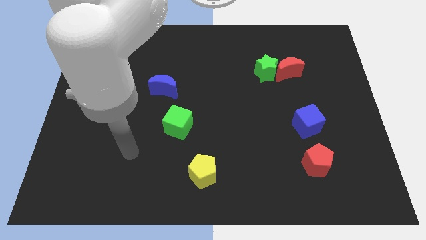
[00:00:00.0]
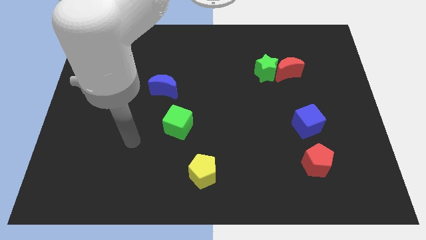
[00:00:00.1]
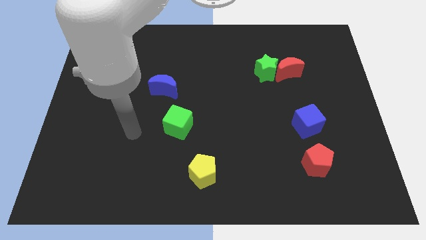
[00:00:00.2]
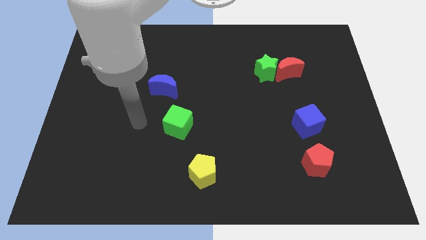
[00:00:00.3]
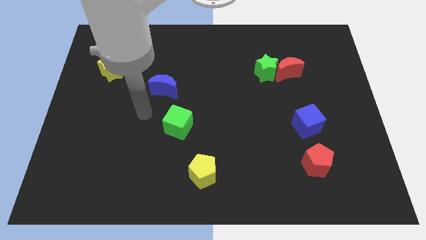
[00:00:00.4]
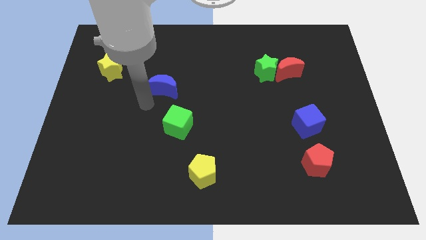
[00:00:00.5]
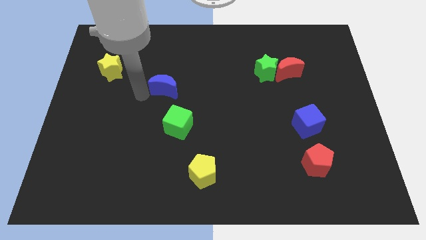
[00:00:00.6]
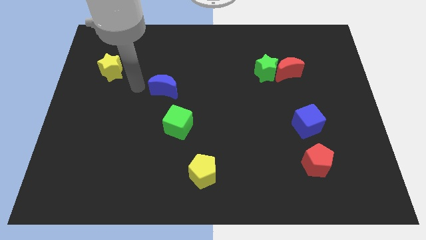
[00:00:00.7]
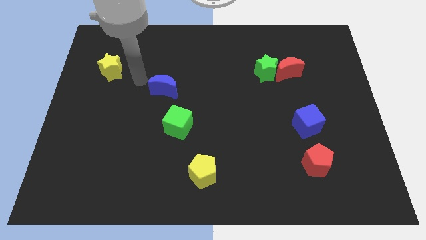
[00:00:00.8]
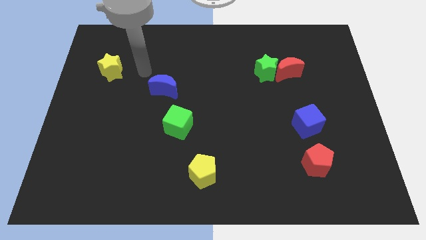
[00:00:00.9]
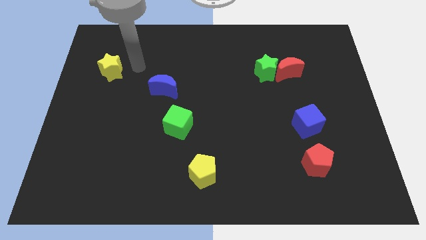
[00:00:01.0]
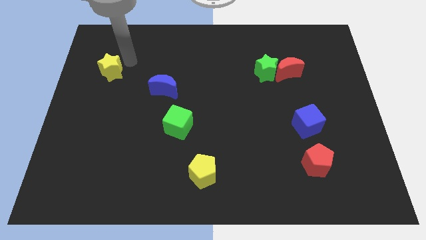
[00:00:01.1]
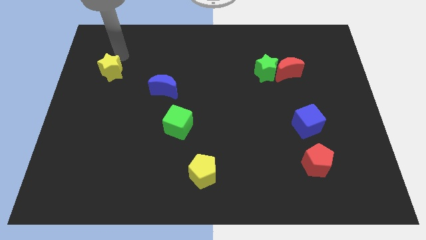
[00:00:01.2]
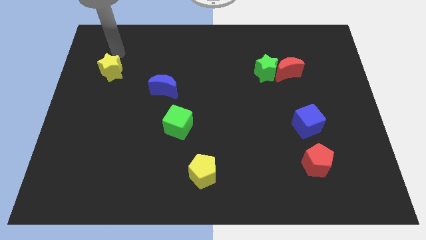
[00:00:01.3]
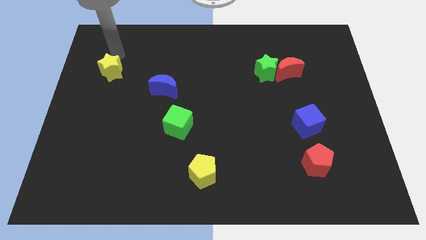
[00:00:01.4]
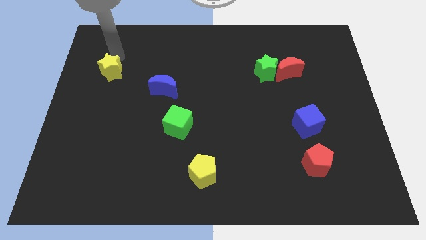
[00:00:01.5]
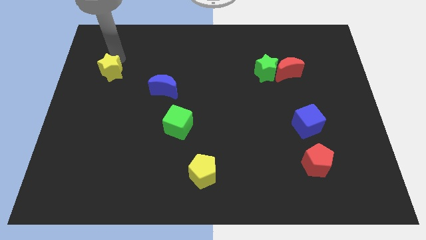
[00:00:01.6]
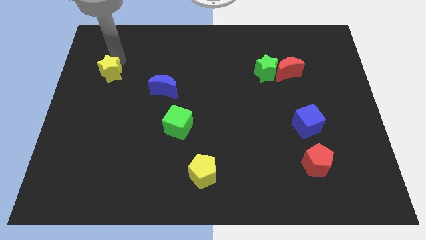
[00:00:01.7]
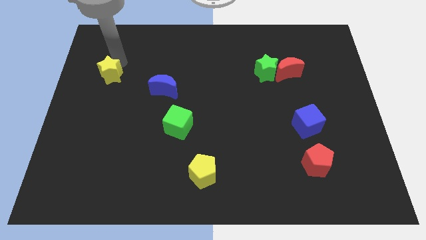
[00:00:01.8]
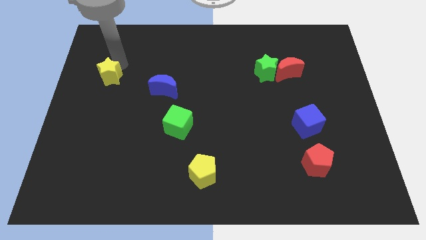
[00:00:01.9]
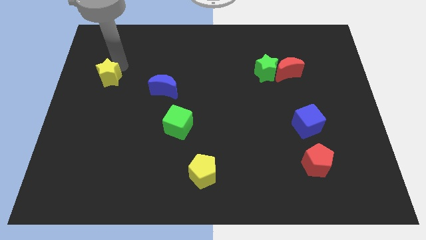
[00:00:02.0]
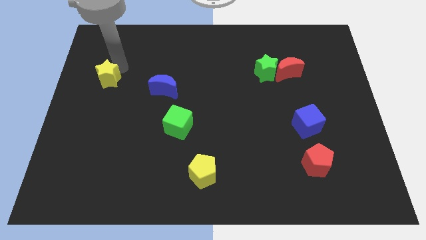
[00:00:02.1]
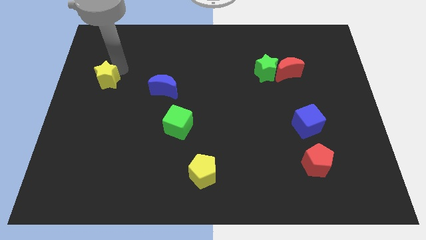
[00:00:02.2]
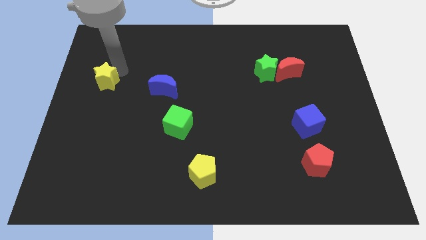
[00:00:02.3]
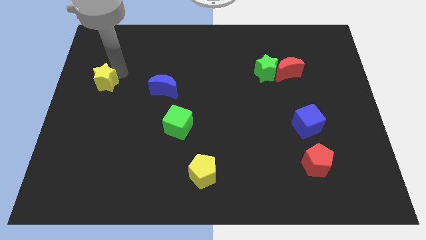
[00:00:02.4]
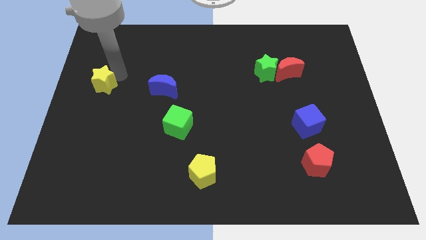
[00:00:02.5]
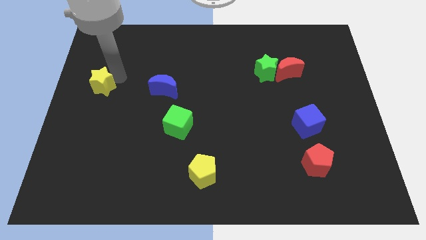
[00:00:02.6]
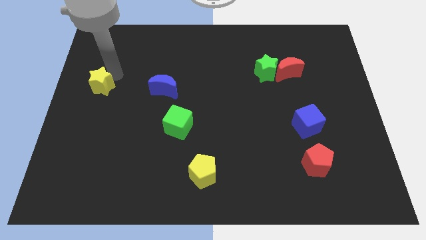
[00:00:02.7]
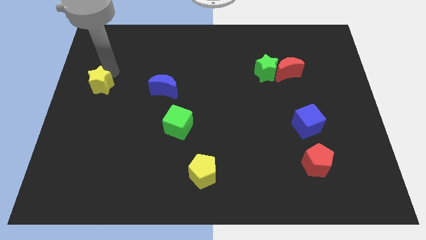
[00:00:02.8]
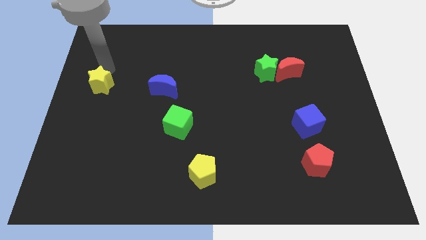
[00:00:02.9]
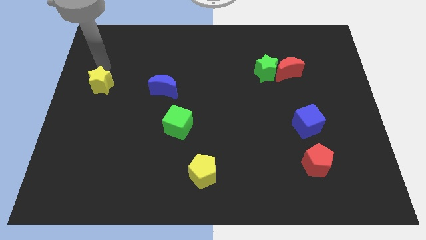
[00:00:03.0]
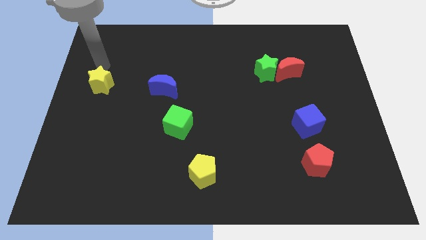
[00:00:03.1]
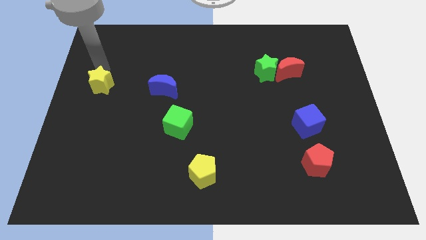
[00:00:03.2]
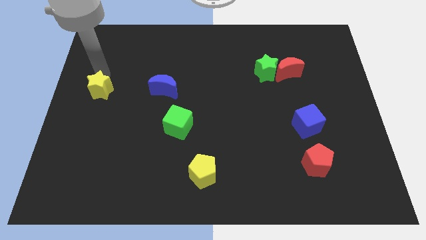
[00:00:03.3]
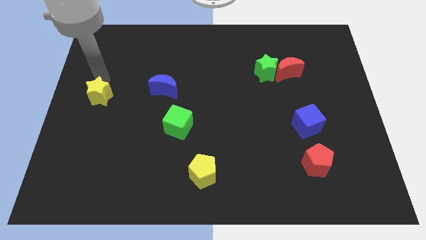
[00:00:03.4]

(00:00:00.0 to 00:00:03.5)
slide the yellow star a bit downwards

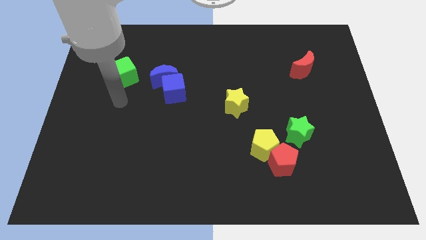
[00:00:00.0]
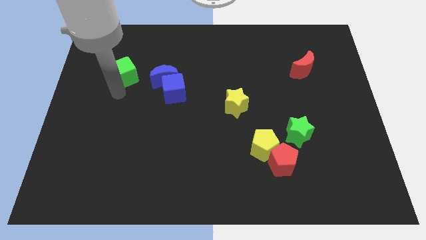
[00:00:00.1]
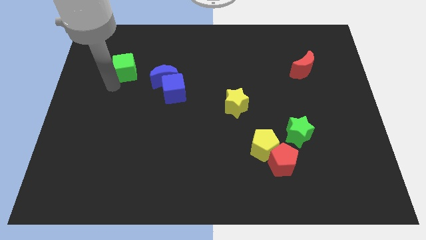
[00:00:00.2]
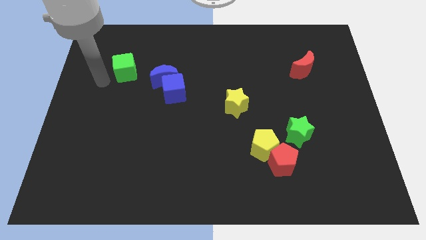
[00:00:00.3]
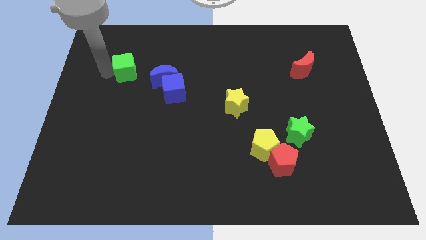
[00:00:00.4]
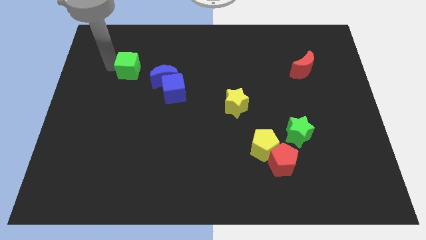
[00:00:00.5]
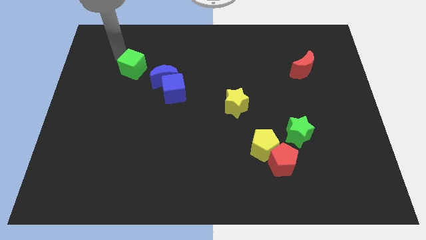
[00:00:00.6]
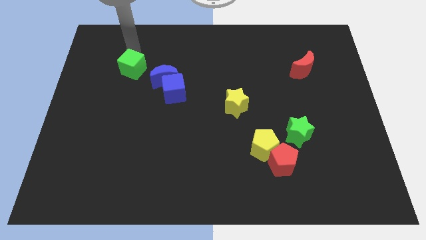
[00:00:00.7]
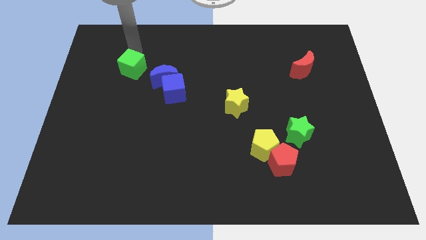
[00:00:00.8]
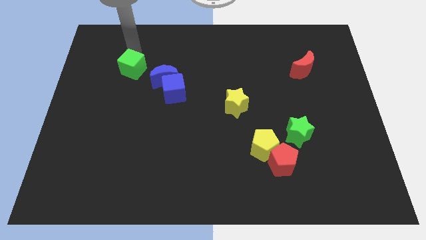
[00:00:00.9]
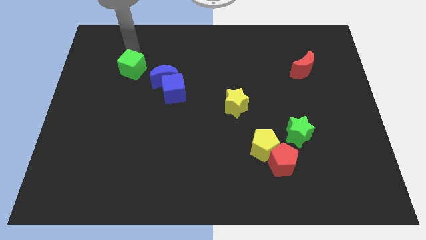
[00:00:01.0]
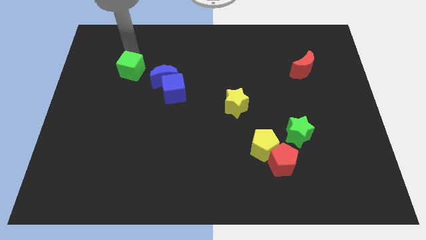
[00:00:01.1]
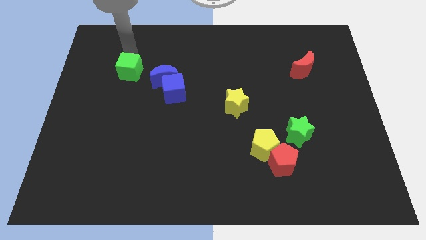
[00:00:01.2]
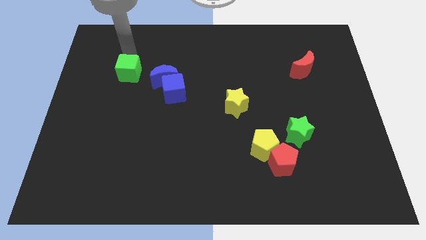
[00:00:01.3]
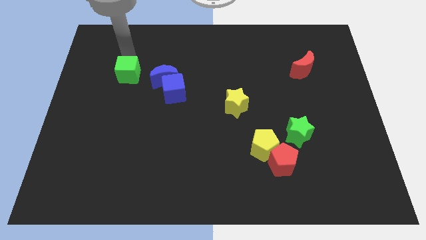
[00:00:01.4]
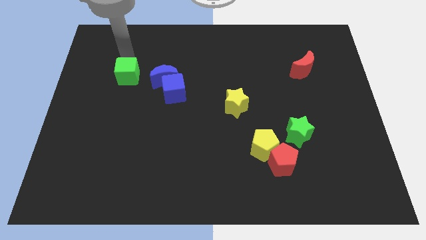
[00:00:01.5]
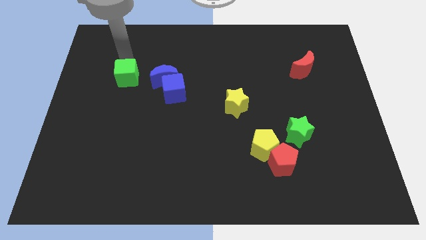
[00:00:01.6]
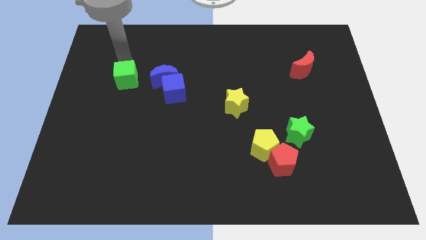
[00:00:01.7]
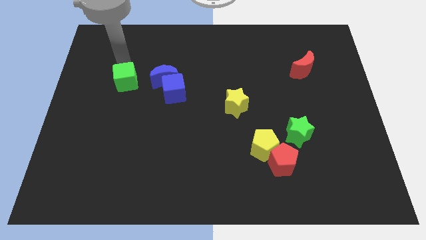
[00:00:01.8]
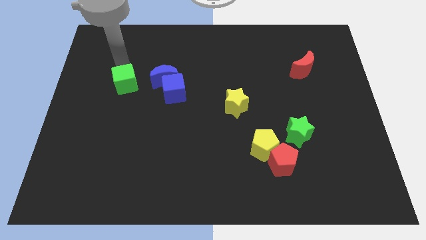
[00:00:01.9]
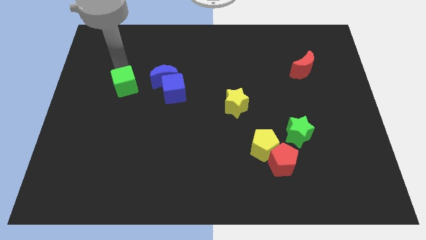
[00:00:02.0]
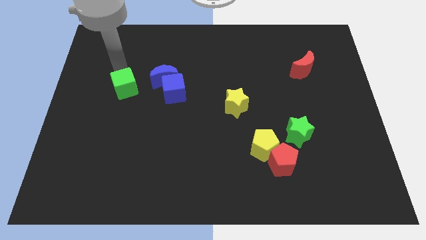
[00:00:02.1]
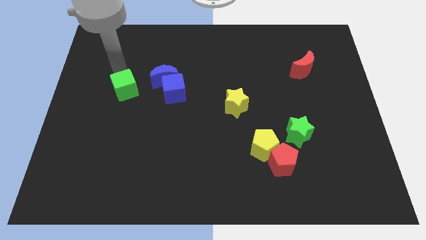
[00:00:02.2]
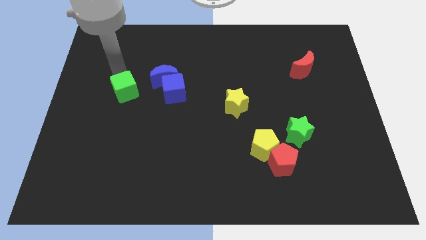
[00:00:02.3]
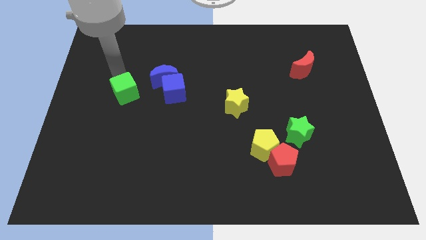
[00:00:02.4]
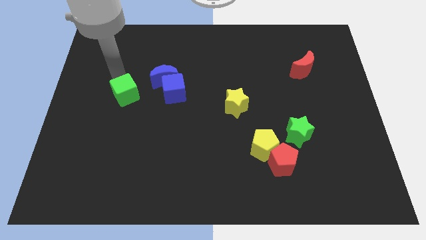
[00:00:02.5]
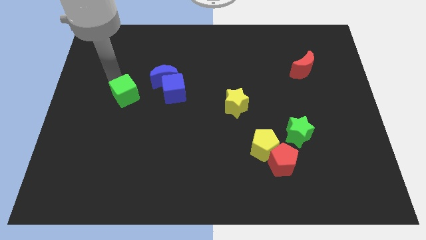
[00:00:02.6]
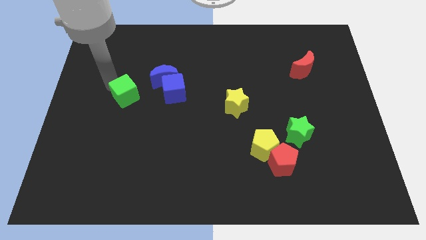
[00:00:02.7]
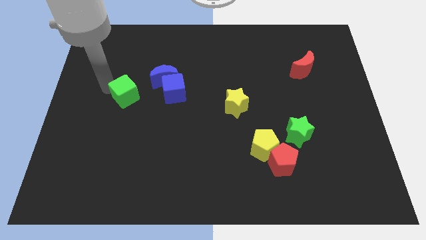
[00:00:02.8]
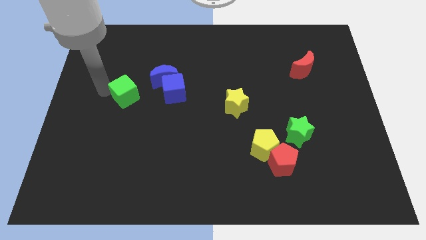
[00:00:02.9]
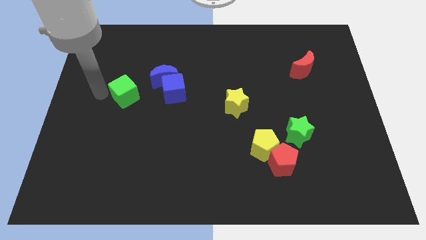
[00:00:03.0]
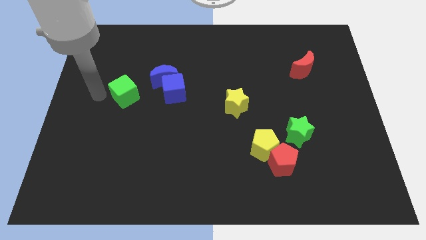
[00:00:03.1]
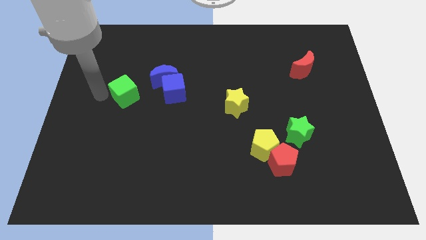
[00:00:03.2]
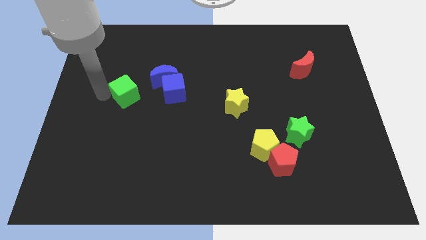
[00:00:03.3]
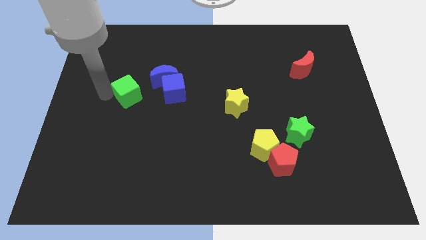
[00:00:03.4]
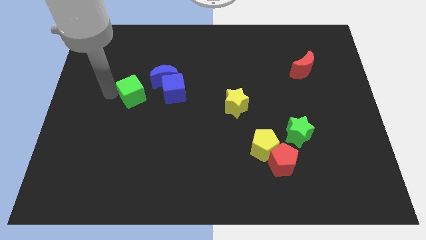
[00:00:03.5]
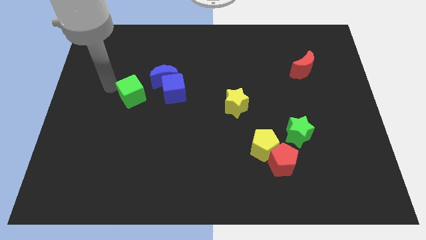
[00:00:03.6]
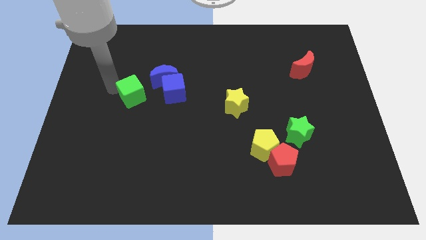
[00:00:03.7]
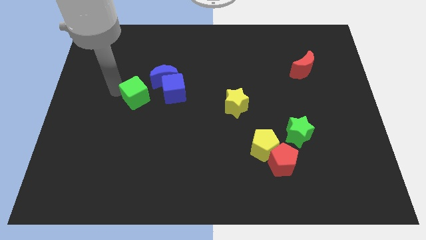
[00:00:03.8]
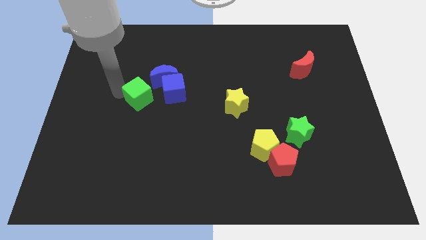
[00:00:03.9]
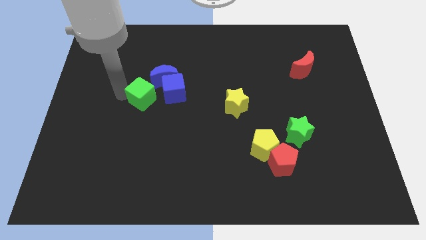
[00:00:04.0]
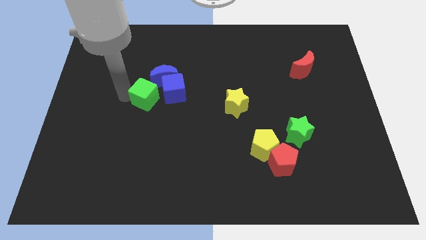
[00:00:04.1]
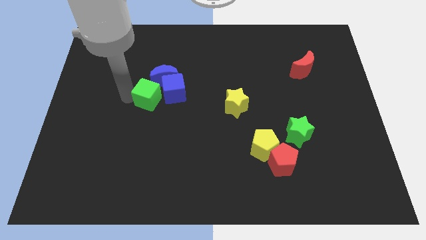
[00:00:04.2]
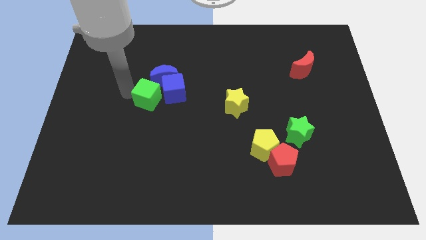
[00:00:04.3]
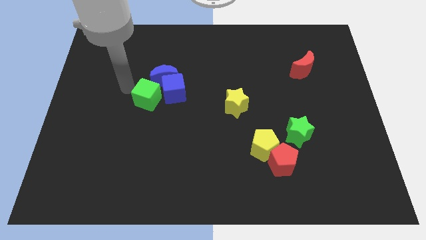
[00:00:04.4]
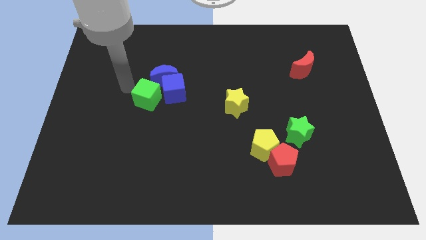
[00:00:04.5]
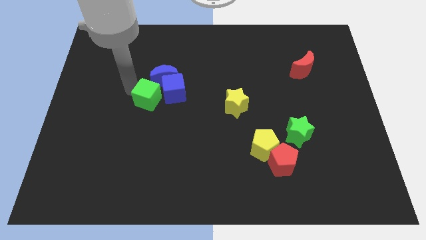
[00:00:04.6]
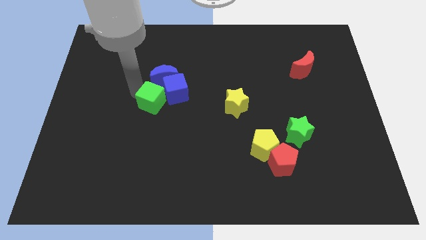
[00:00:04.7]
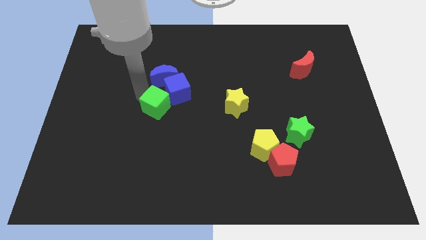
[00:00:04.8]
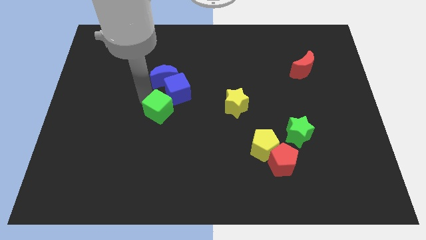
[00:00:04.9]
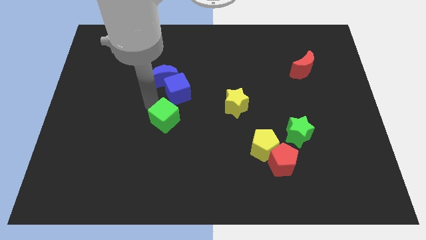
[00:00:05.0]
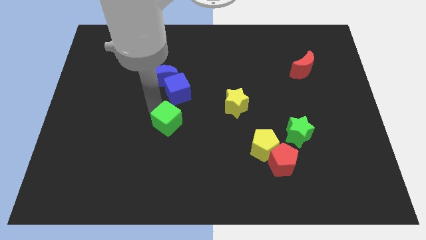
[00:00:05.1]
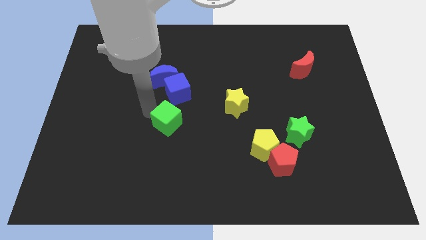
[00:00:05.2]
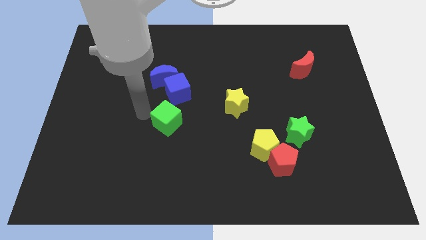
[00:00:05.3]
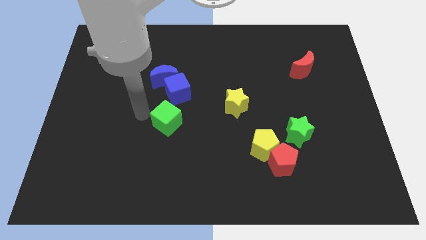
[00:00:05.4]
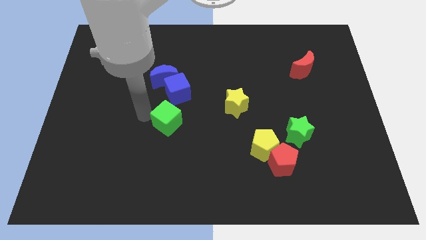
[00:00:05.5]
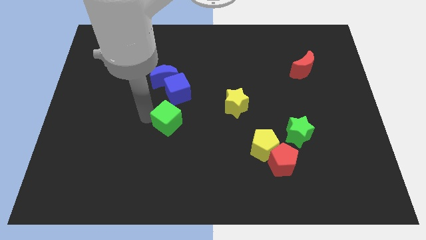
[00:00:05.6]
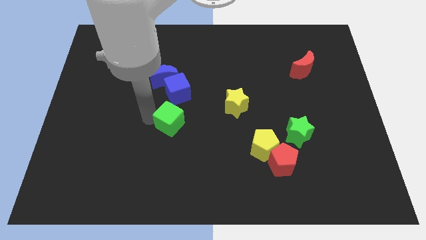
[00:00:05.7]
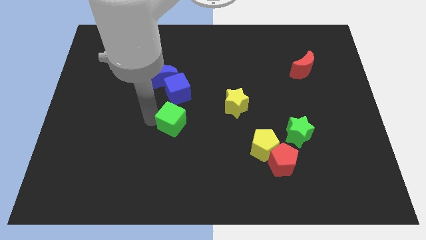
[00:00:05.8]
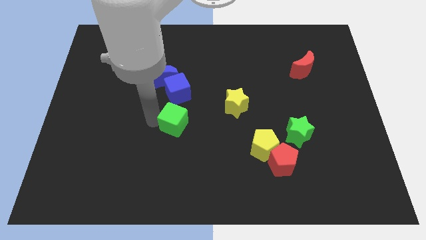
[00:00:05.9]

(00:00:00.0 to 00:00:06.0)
move the green cube downwards and then right
